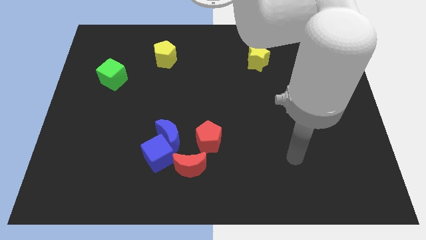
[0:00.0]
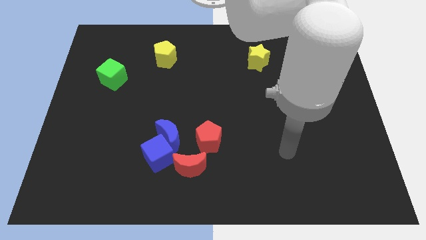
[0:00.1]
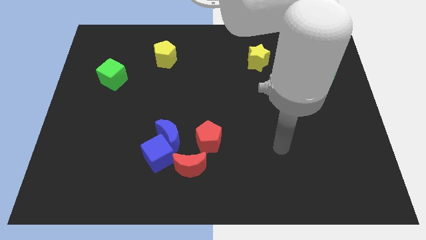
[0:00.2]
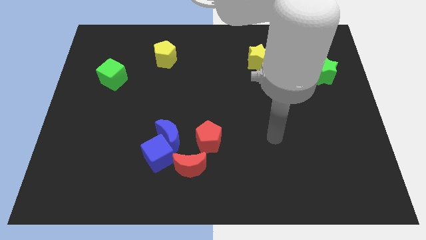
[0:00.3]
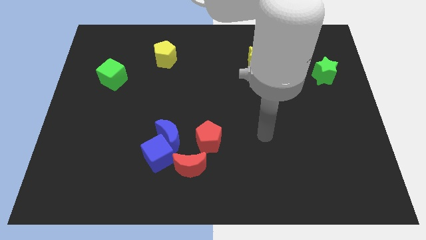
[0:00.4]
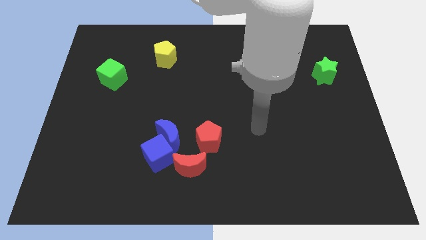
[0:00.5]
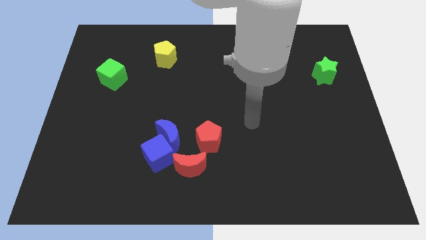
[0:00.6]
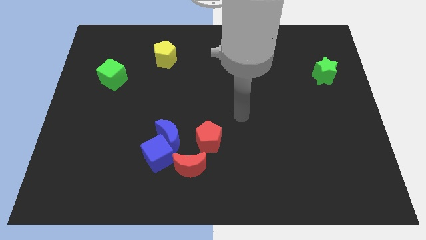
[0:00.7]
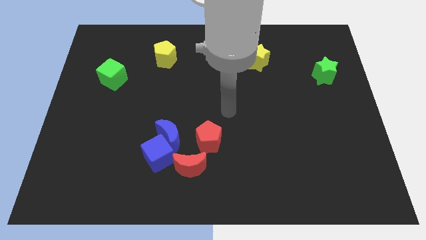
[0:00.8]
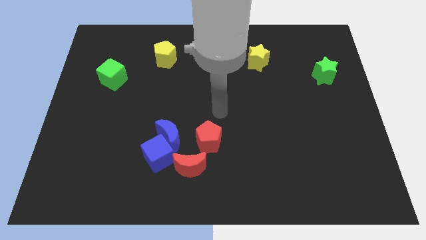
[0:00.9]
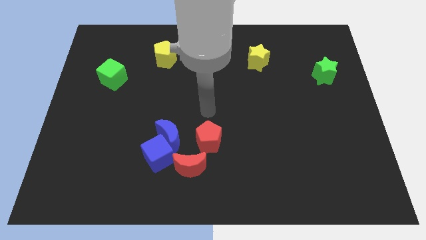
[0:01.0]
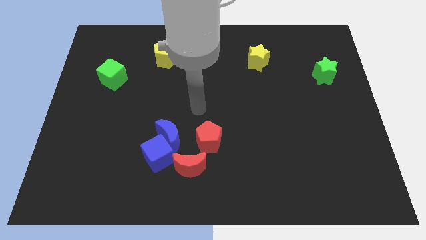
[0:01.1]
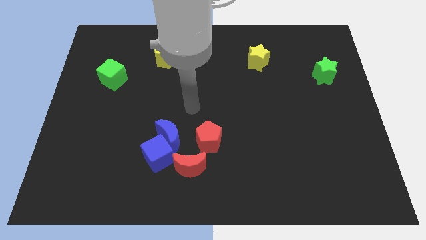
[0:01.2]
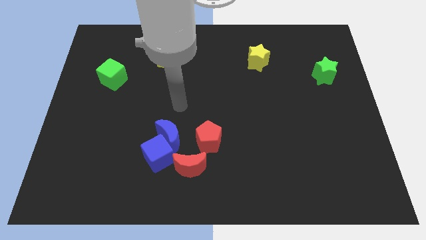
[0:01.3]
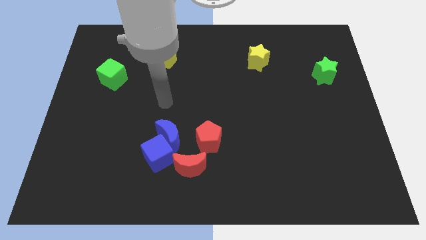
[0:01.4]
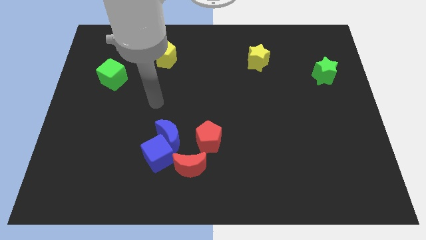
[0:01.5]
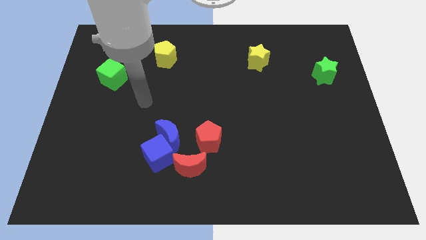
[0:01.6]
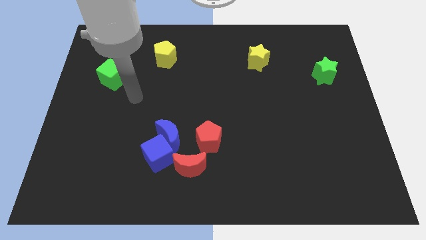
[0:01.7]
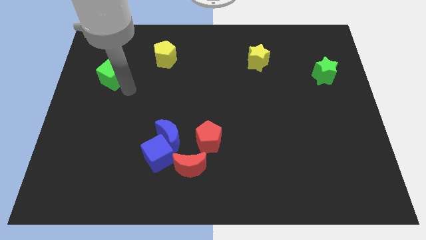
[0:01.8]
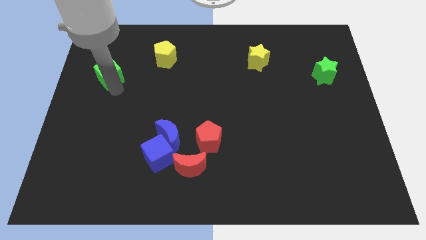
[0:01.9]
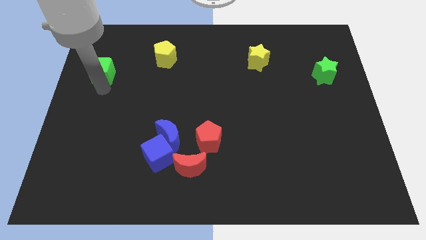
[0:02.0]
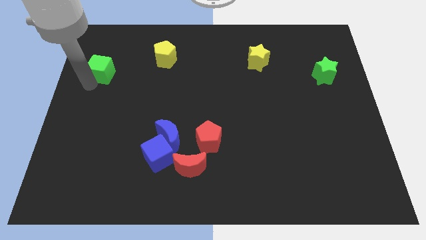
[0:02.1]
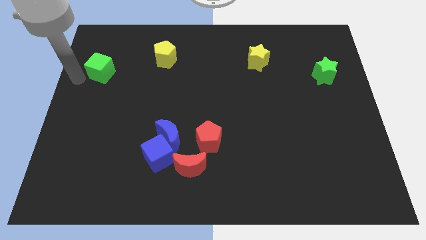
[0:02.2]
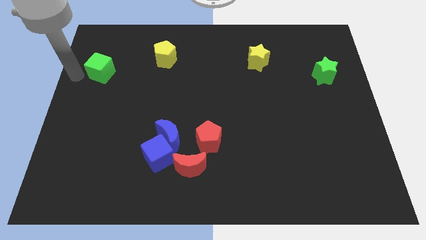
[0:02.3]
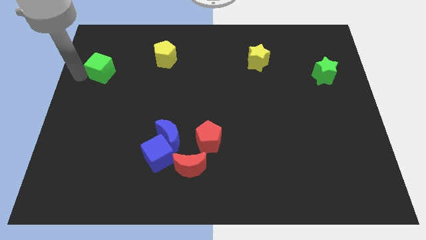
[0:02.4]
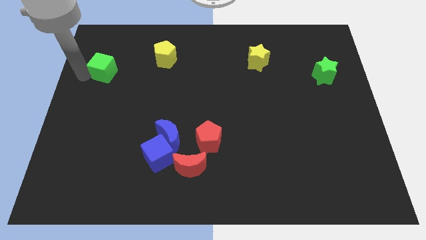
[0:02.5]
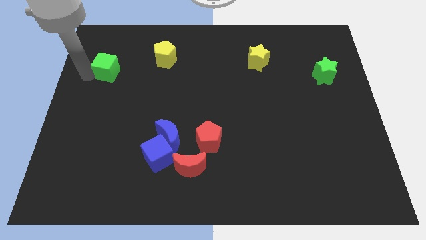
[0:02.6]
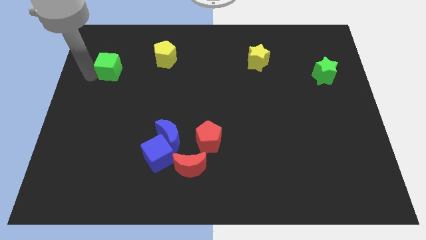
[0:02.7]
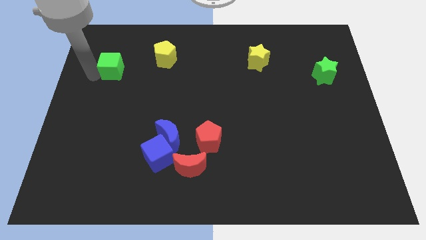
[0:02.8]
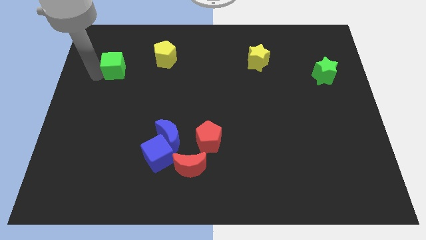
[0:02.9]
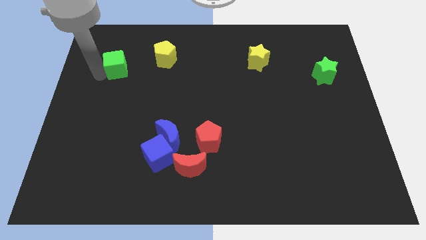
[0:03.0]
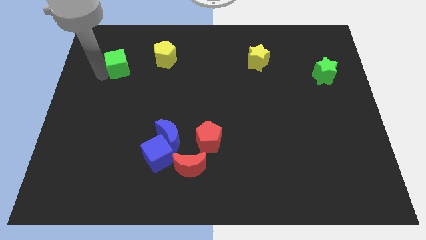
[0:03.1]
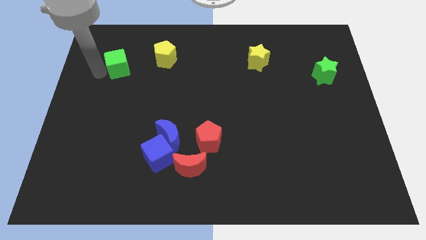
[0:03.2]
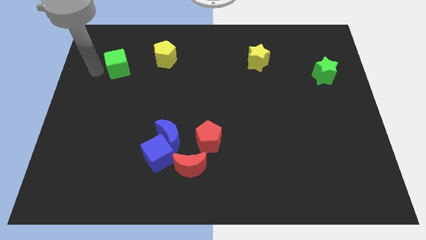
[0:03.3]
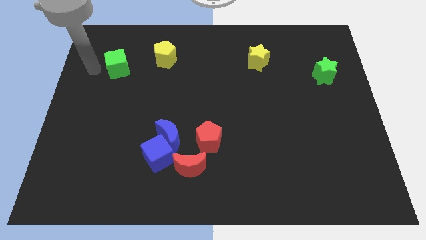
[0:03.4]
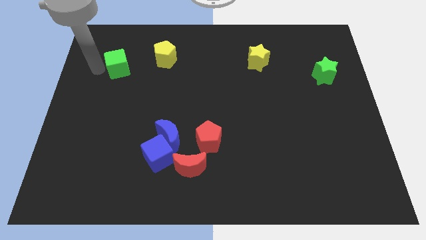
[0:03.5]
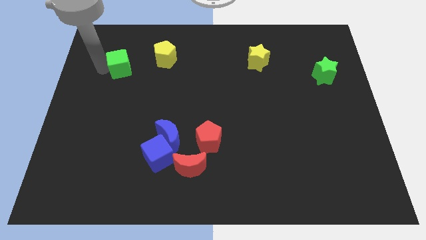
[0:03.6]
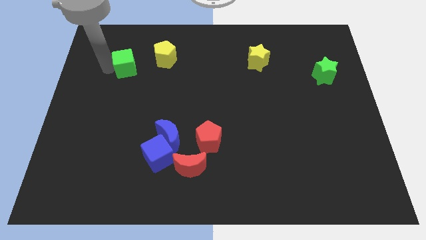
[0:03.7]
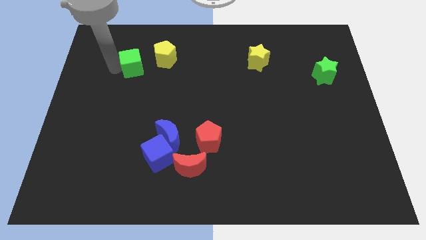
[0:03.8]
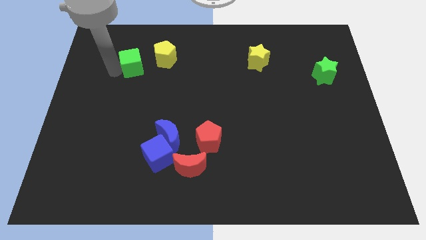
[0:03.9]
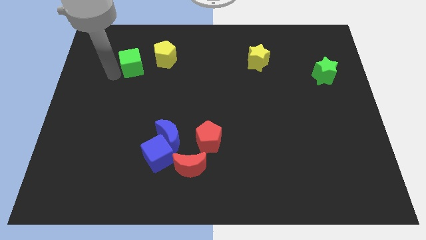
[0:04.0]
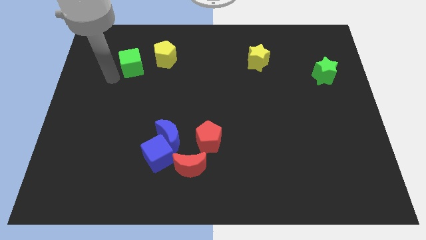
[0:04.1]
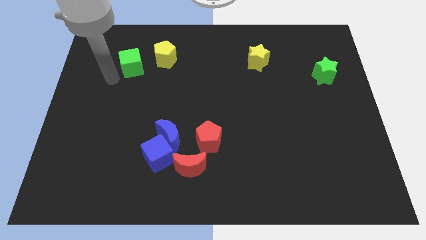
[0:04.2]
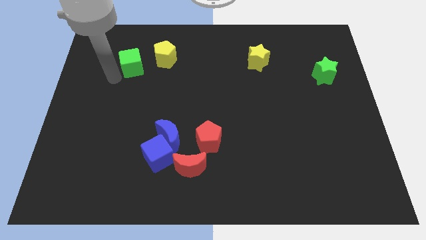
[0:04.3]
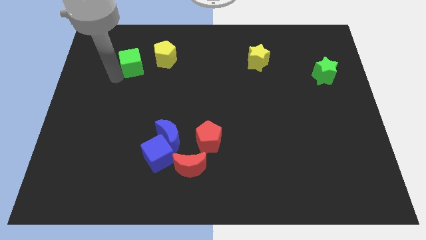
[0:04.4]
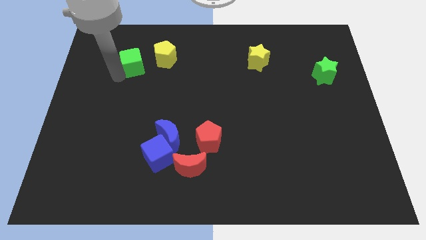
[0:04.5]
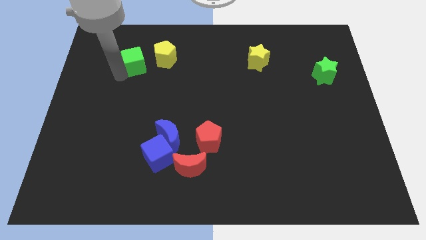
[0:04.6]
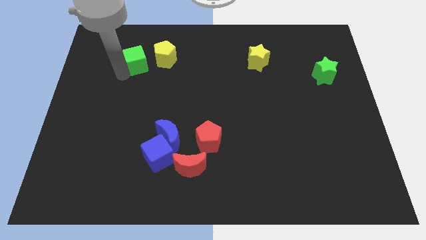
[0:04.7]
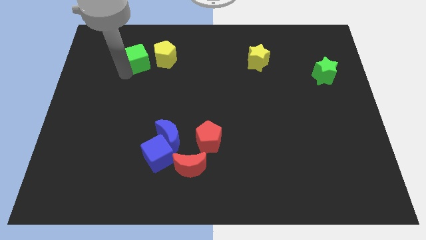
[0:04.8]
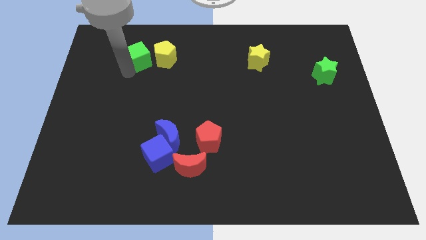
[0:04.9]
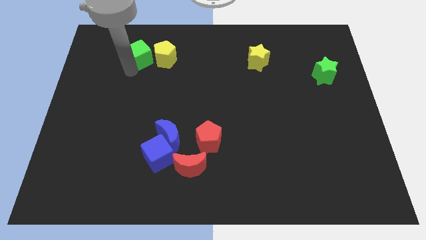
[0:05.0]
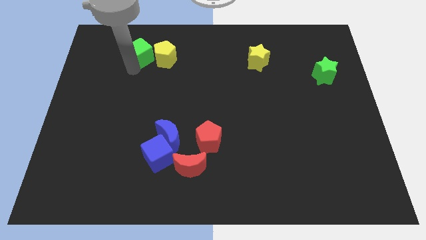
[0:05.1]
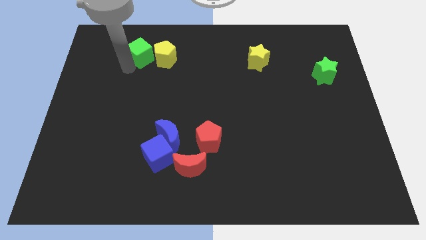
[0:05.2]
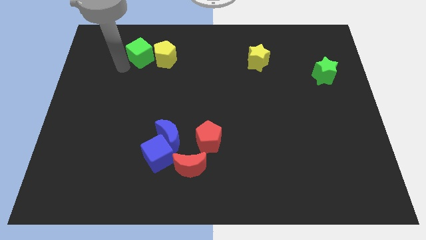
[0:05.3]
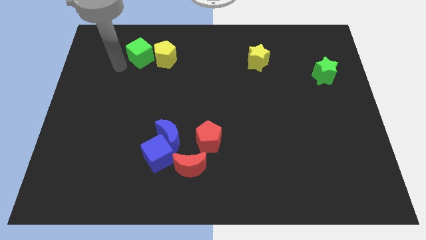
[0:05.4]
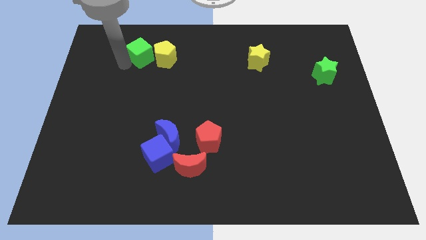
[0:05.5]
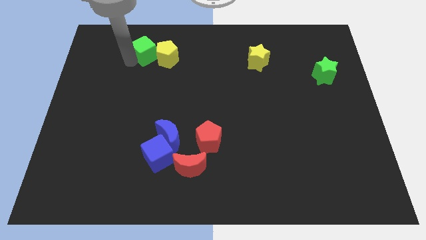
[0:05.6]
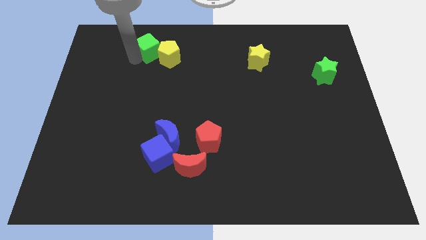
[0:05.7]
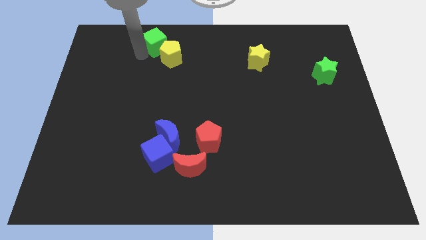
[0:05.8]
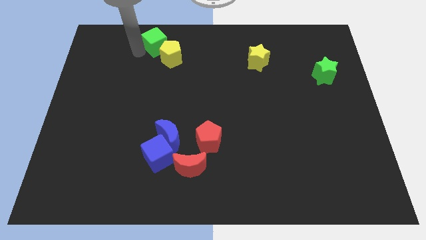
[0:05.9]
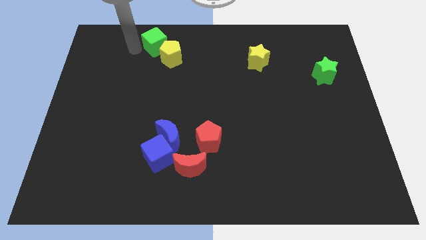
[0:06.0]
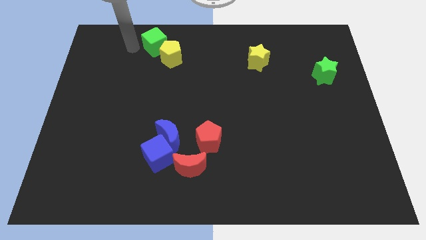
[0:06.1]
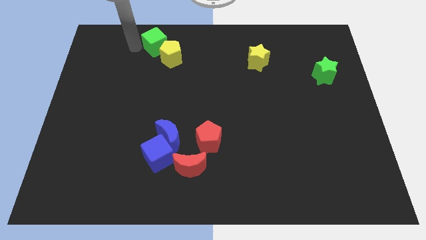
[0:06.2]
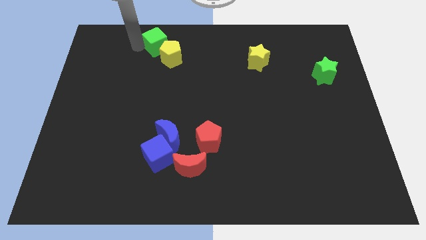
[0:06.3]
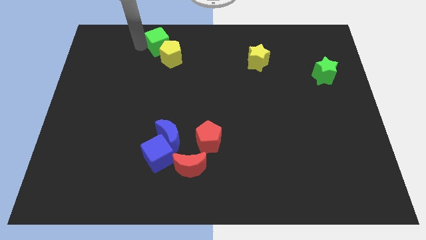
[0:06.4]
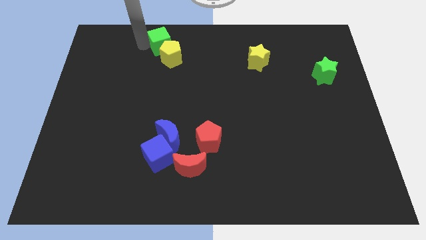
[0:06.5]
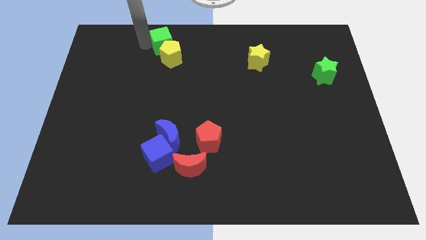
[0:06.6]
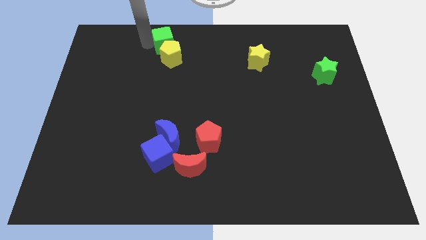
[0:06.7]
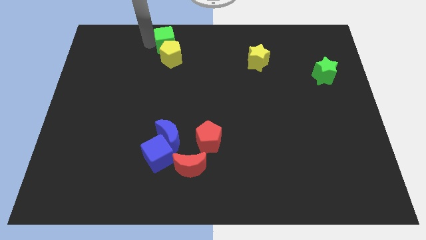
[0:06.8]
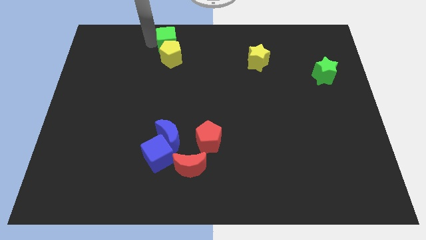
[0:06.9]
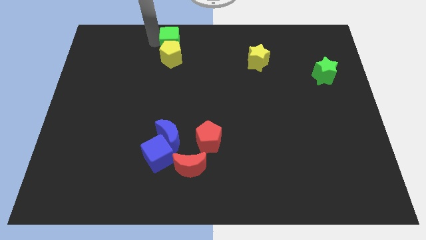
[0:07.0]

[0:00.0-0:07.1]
slide the green cube to the top side
